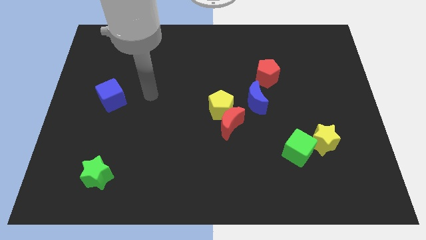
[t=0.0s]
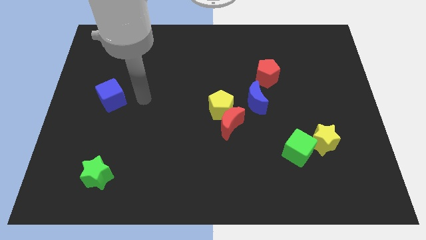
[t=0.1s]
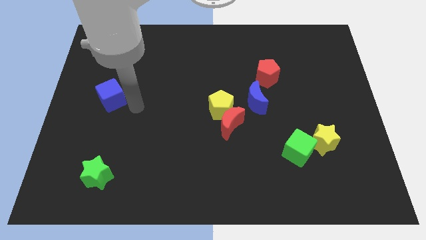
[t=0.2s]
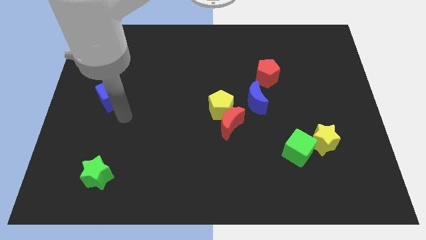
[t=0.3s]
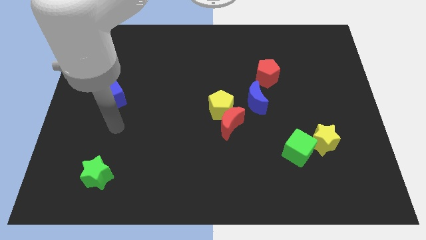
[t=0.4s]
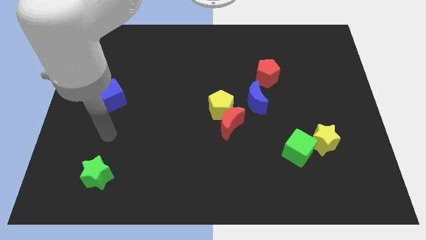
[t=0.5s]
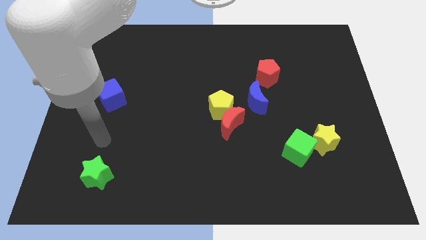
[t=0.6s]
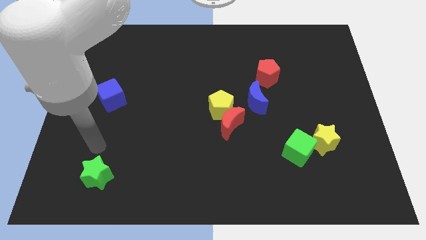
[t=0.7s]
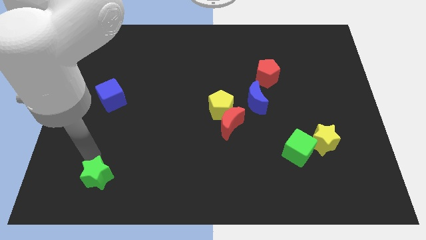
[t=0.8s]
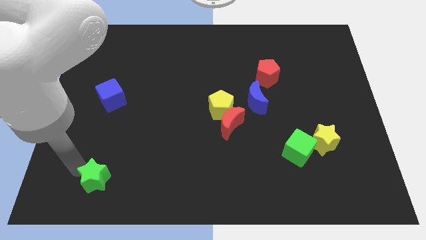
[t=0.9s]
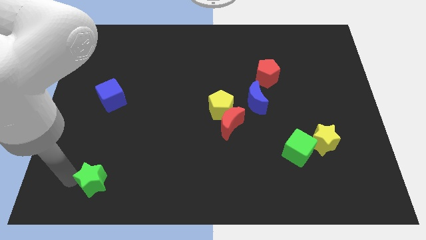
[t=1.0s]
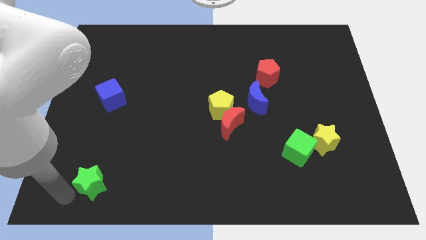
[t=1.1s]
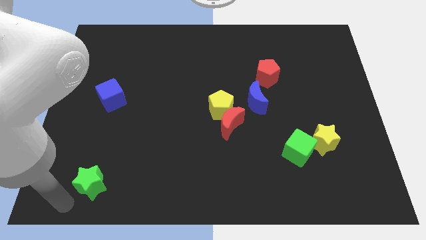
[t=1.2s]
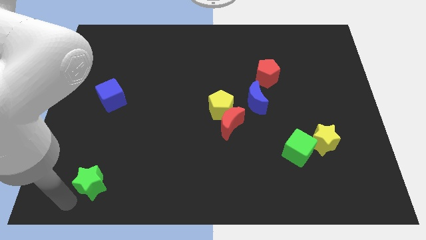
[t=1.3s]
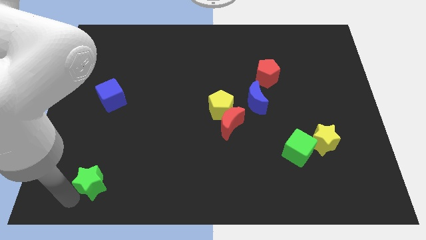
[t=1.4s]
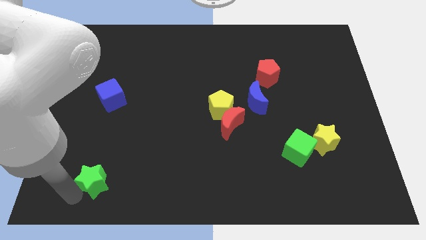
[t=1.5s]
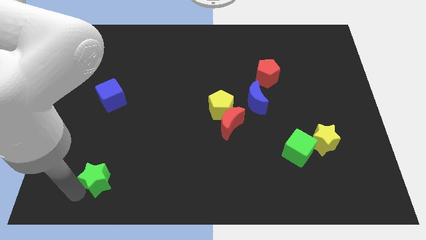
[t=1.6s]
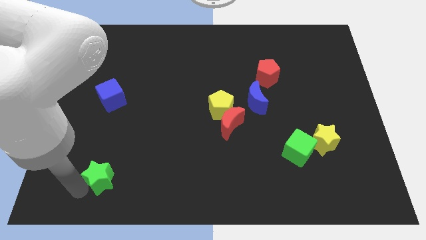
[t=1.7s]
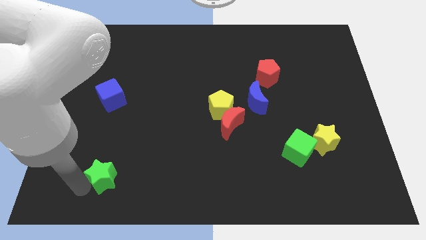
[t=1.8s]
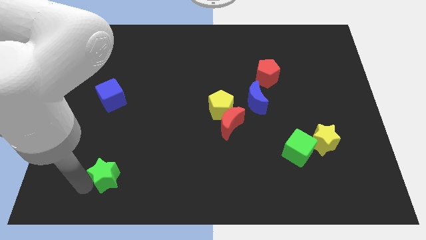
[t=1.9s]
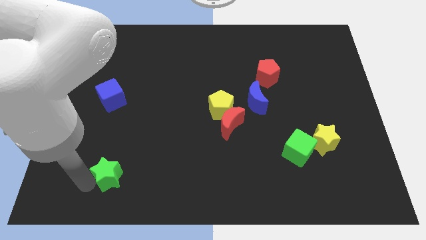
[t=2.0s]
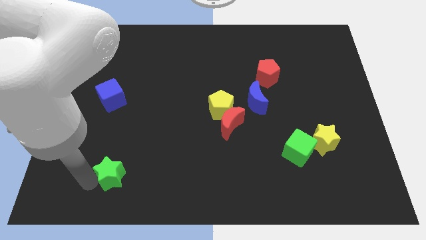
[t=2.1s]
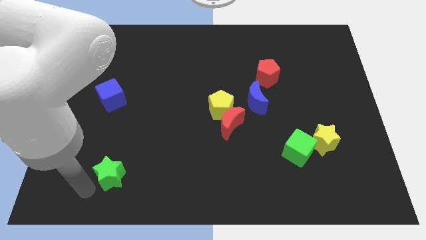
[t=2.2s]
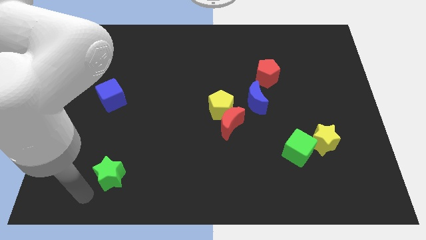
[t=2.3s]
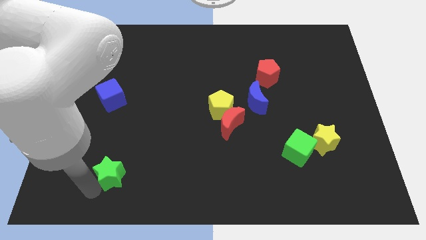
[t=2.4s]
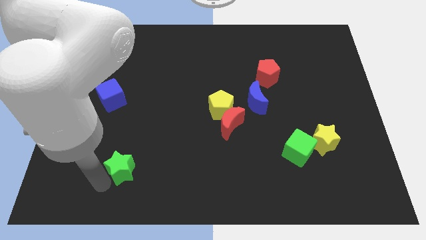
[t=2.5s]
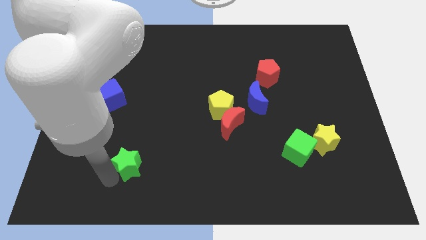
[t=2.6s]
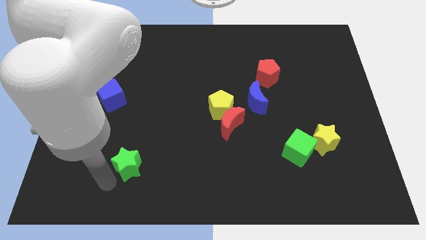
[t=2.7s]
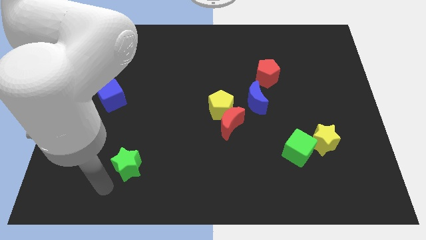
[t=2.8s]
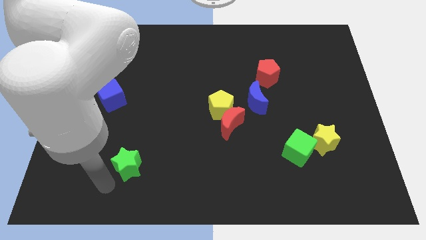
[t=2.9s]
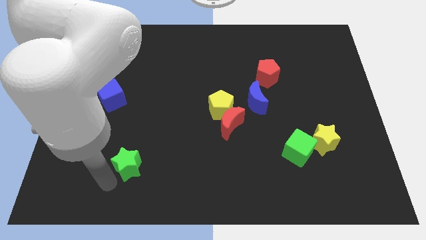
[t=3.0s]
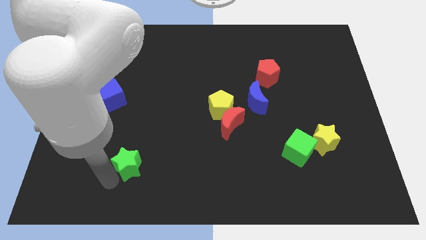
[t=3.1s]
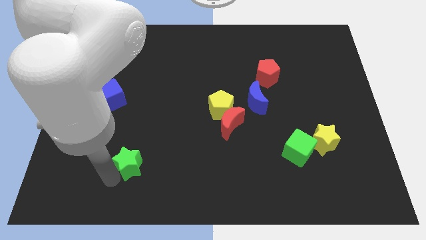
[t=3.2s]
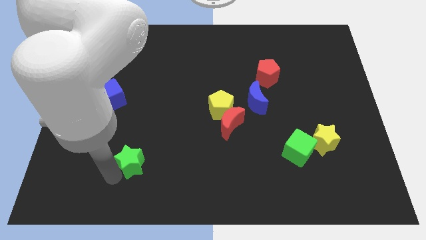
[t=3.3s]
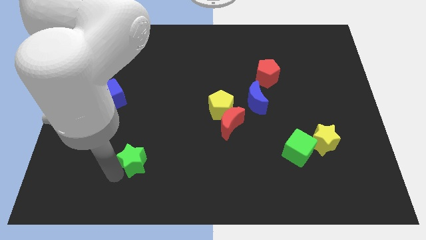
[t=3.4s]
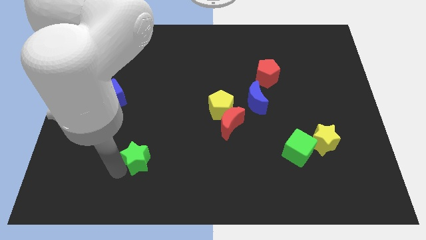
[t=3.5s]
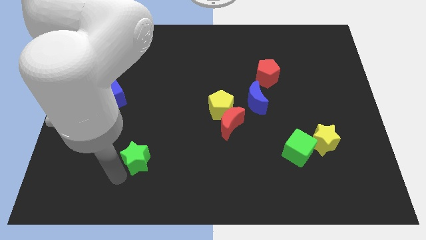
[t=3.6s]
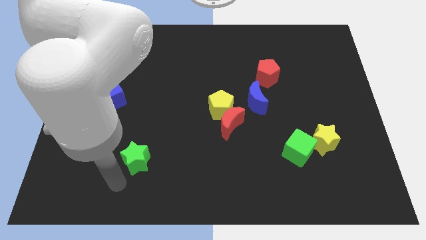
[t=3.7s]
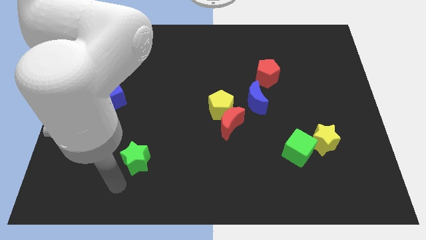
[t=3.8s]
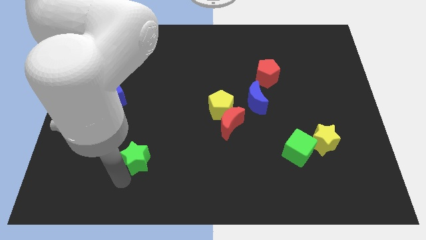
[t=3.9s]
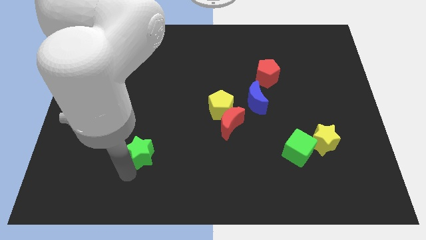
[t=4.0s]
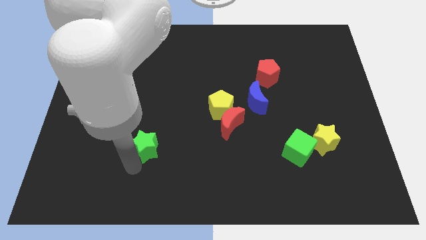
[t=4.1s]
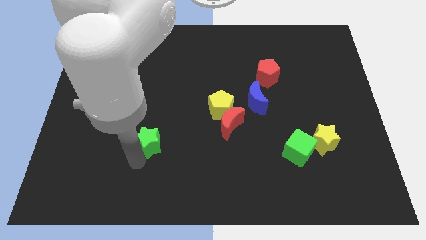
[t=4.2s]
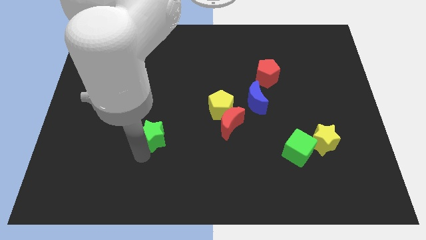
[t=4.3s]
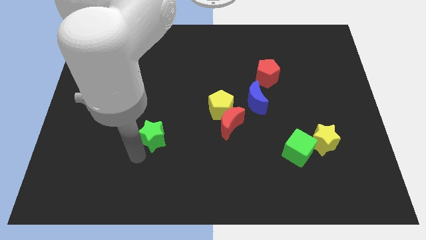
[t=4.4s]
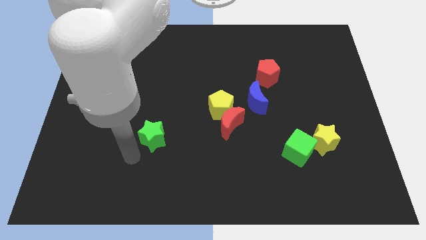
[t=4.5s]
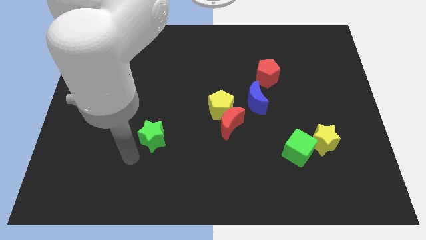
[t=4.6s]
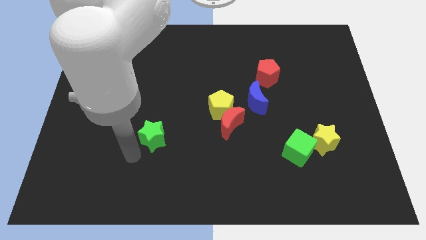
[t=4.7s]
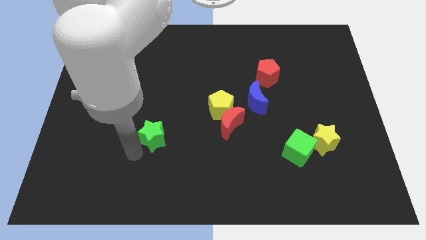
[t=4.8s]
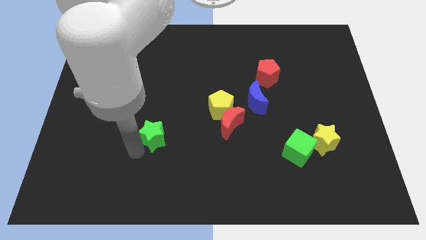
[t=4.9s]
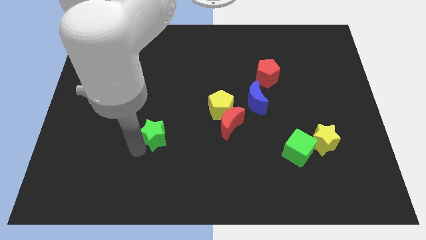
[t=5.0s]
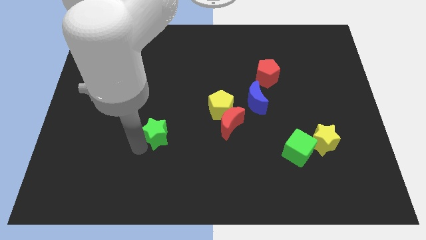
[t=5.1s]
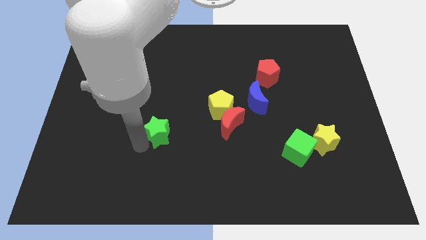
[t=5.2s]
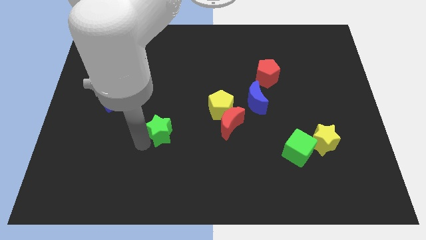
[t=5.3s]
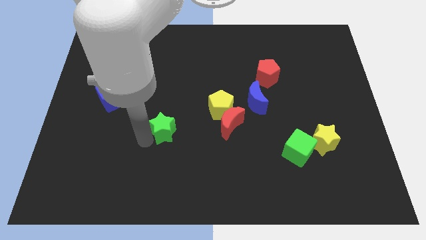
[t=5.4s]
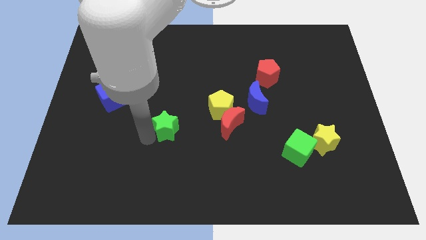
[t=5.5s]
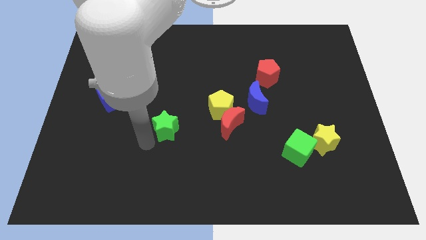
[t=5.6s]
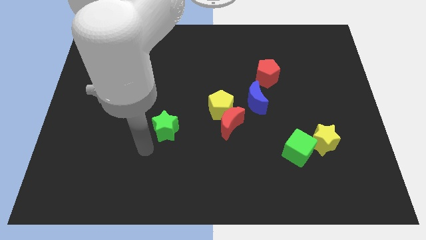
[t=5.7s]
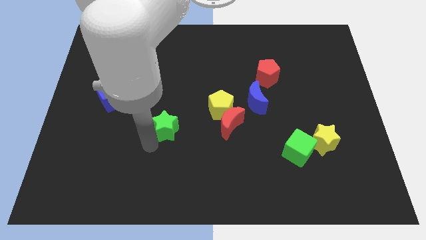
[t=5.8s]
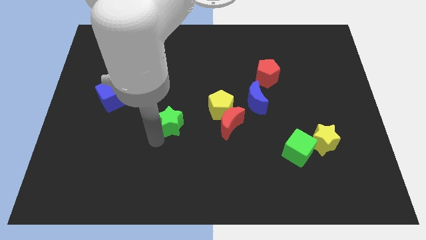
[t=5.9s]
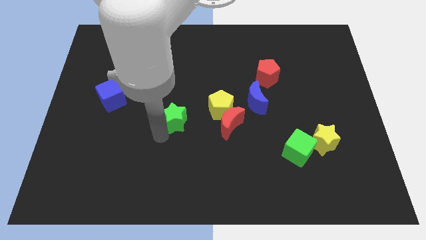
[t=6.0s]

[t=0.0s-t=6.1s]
move the green star diagonally upwards and right

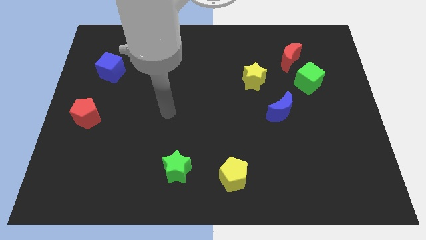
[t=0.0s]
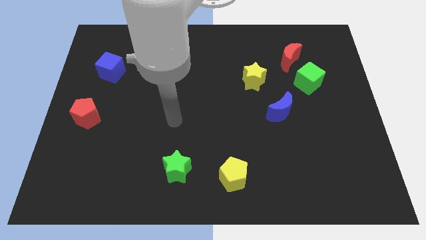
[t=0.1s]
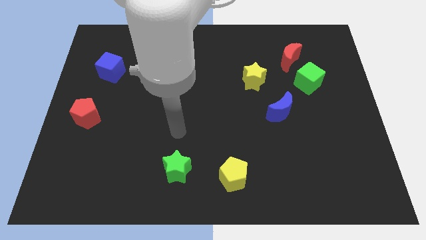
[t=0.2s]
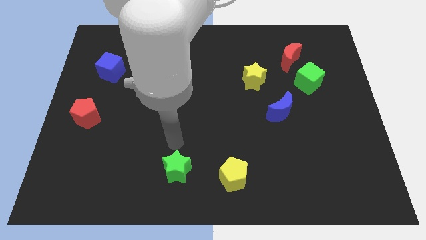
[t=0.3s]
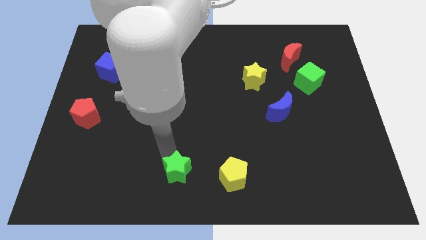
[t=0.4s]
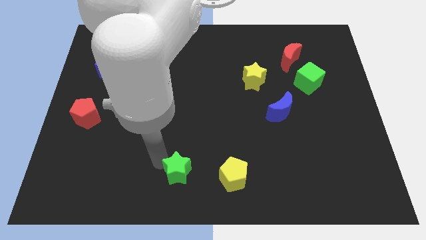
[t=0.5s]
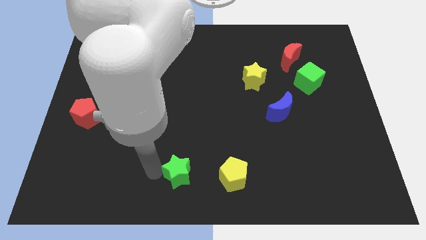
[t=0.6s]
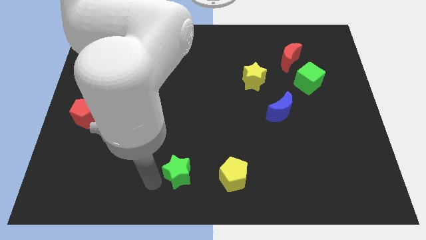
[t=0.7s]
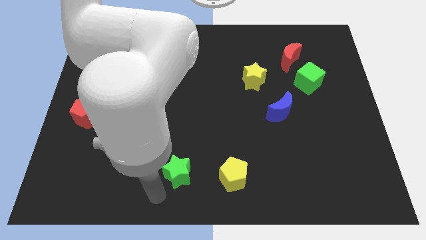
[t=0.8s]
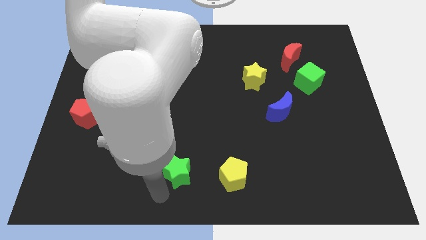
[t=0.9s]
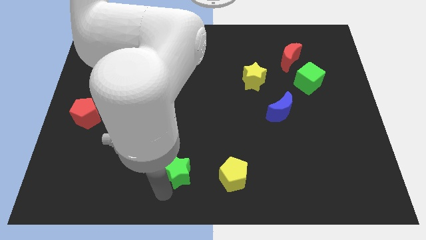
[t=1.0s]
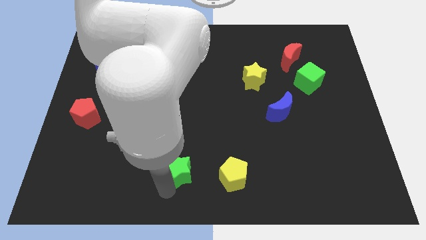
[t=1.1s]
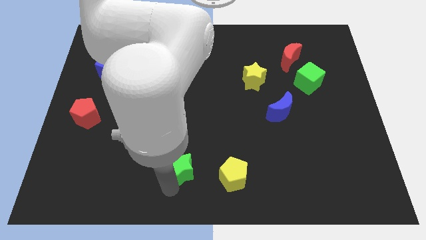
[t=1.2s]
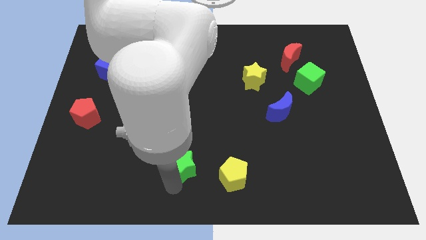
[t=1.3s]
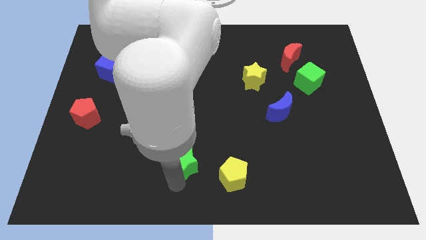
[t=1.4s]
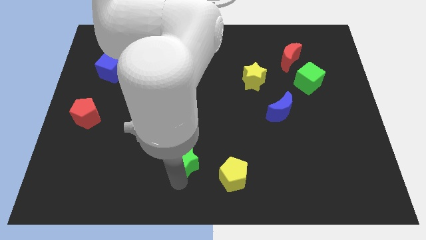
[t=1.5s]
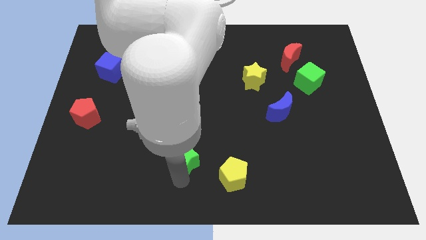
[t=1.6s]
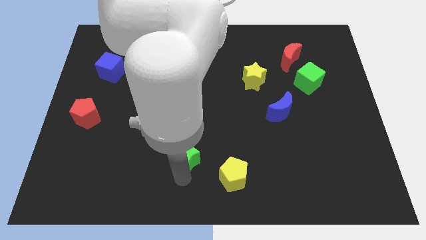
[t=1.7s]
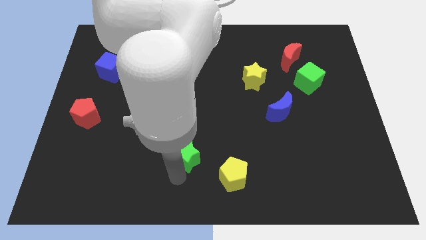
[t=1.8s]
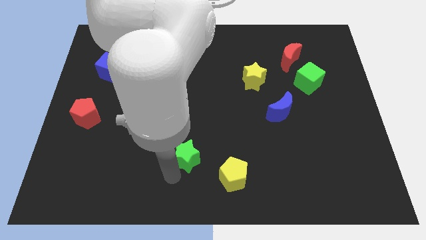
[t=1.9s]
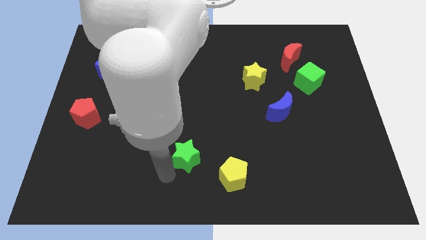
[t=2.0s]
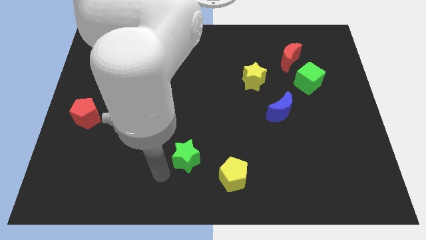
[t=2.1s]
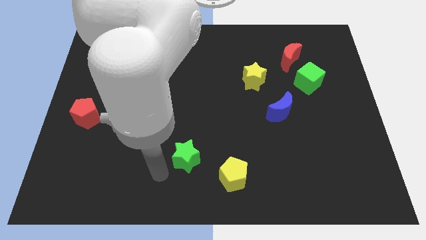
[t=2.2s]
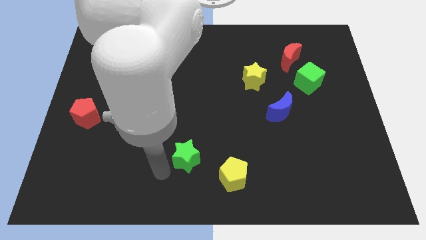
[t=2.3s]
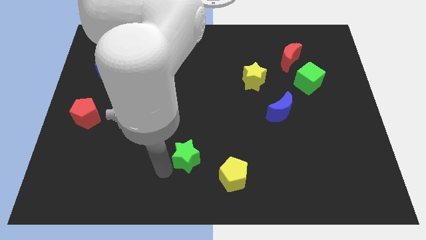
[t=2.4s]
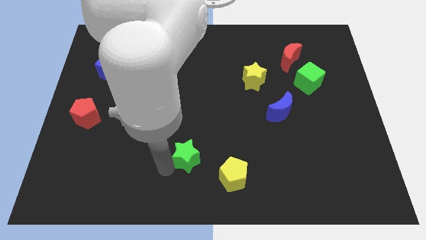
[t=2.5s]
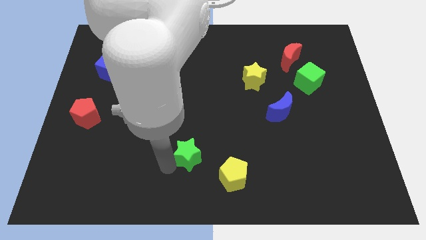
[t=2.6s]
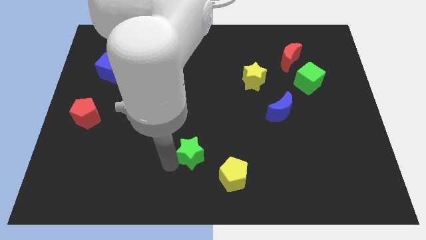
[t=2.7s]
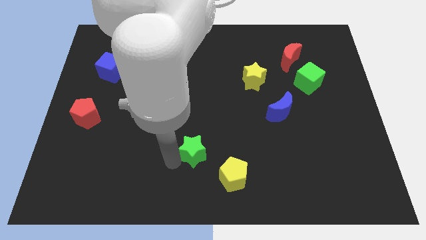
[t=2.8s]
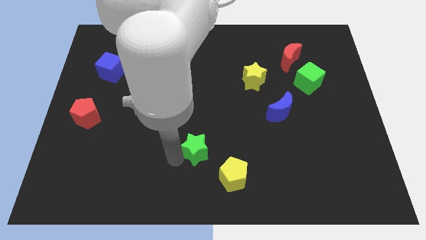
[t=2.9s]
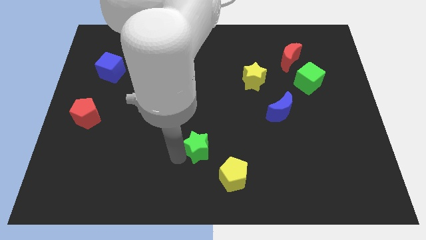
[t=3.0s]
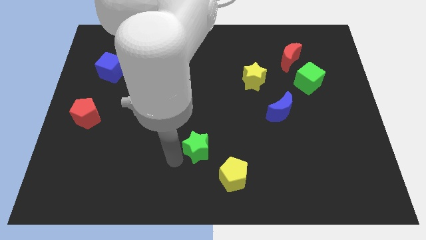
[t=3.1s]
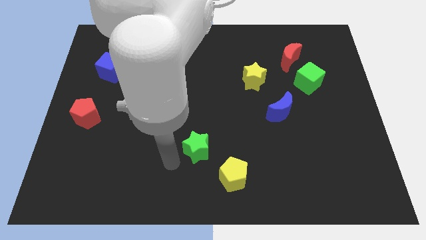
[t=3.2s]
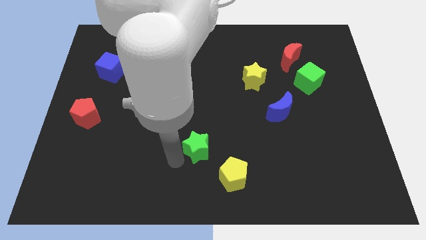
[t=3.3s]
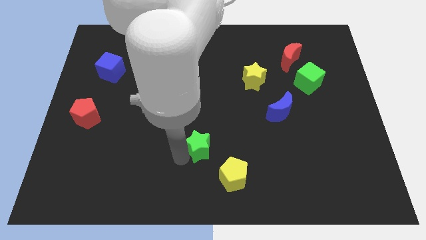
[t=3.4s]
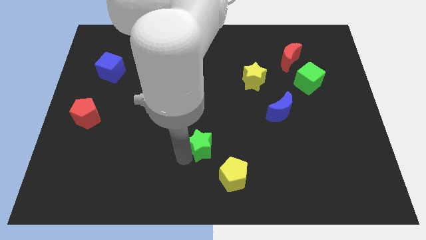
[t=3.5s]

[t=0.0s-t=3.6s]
move the green star somewhat up and right
